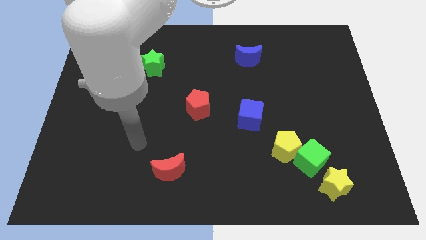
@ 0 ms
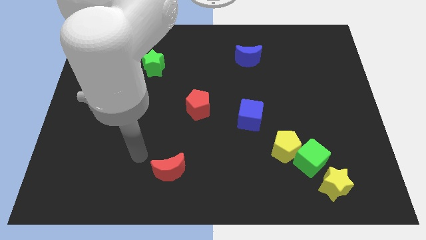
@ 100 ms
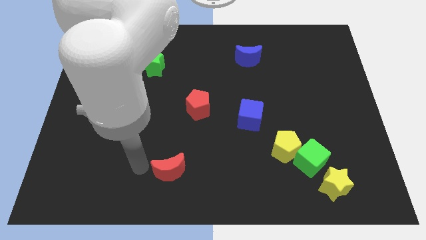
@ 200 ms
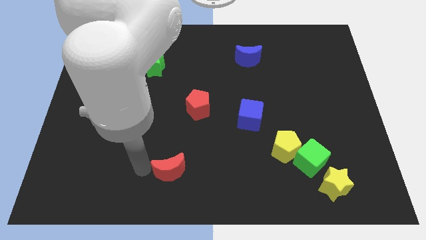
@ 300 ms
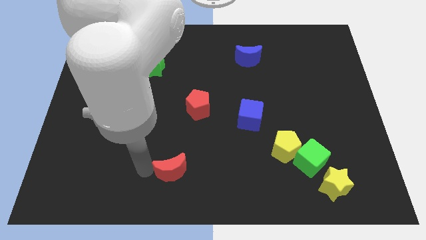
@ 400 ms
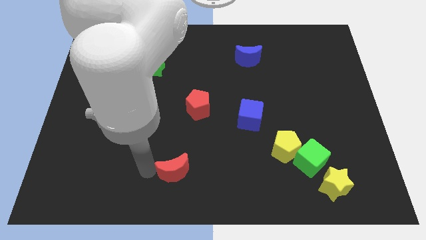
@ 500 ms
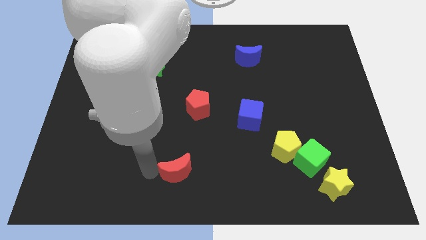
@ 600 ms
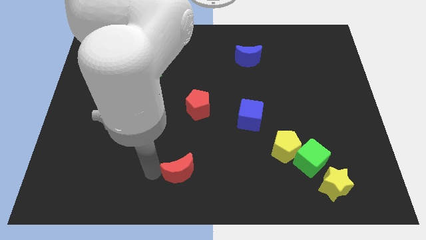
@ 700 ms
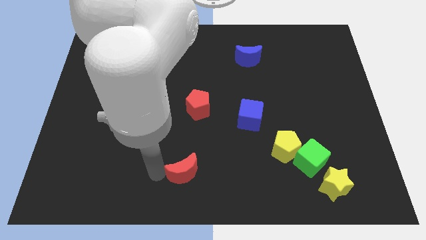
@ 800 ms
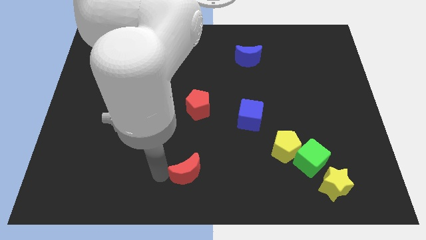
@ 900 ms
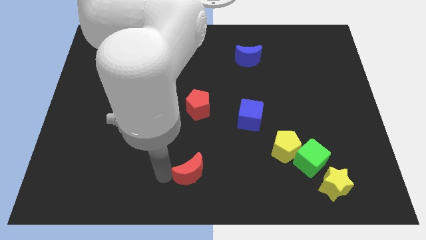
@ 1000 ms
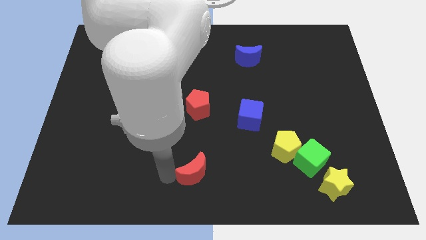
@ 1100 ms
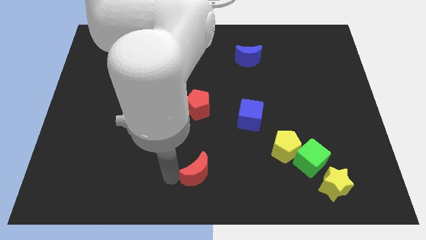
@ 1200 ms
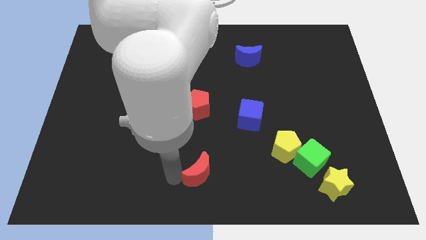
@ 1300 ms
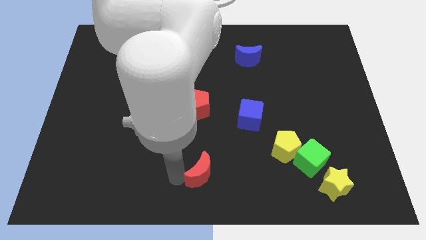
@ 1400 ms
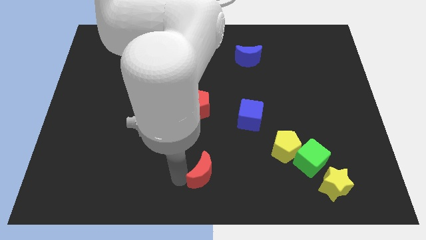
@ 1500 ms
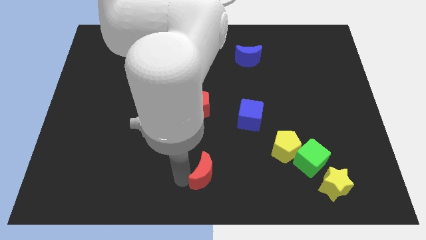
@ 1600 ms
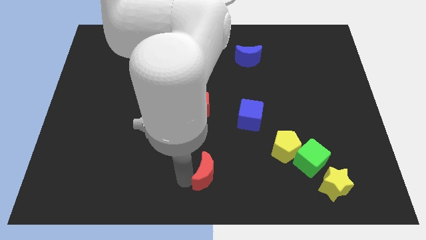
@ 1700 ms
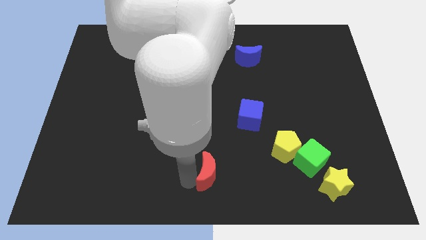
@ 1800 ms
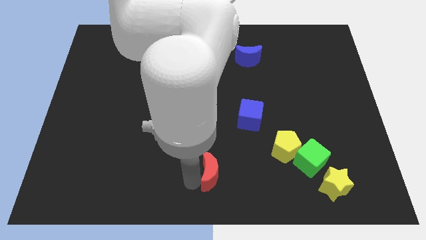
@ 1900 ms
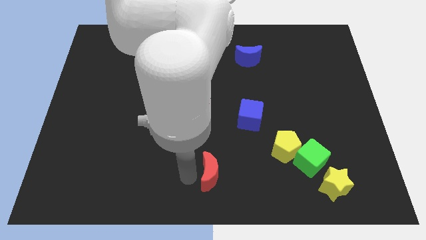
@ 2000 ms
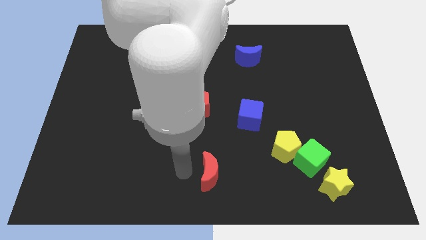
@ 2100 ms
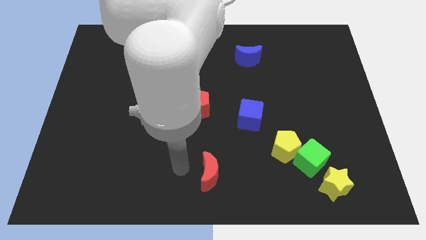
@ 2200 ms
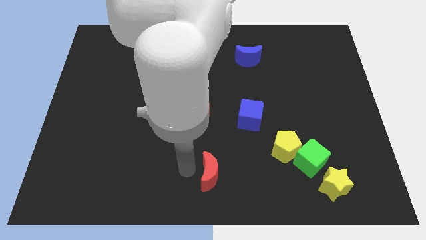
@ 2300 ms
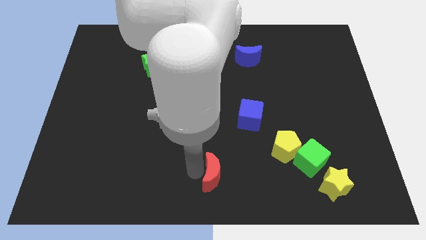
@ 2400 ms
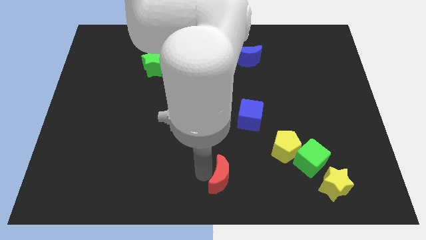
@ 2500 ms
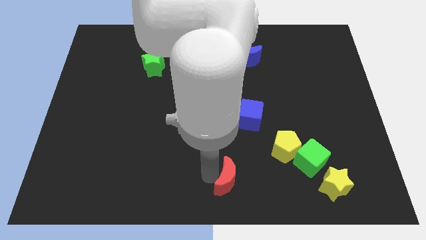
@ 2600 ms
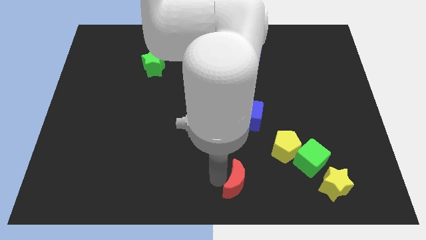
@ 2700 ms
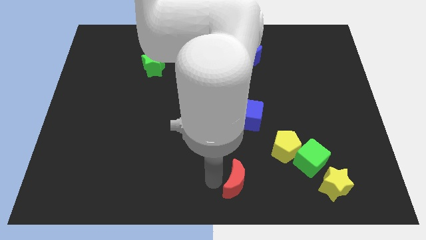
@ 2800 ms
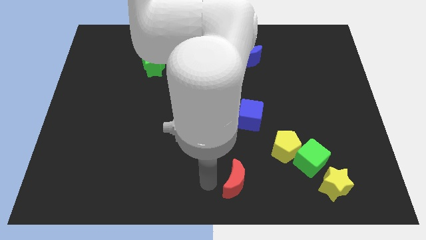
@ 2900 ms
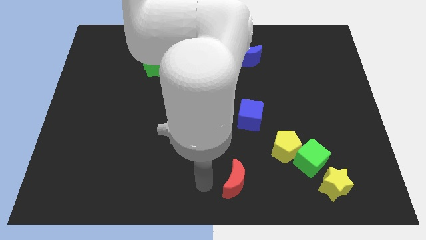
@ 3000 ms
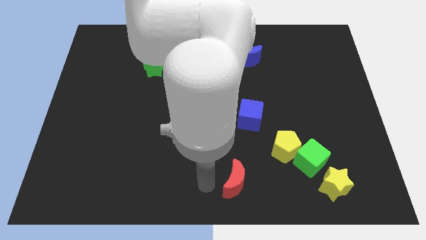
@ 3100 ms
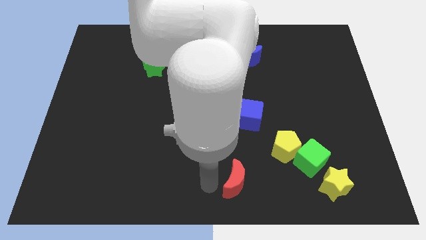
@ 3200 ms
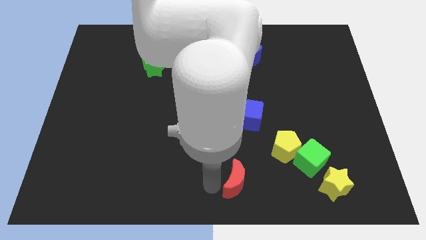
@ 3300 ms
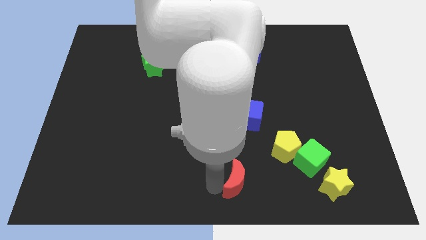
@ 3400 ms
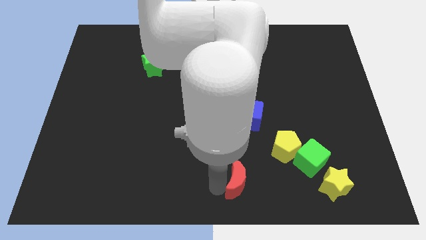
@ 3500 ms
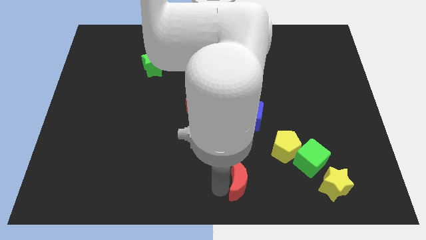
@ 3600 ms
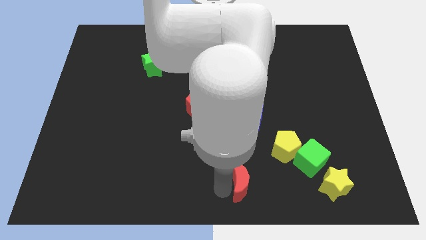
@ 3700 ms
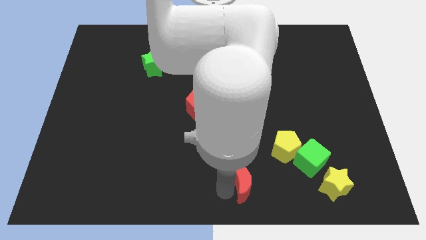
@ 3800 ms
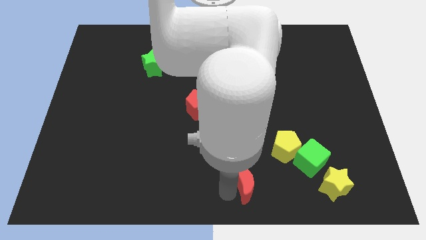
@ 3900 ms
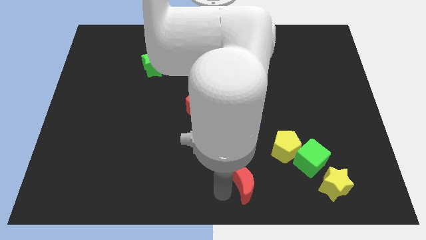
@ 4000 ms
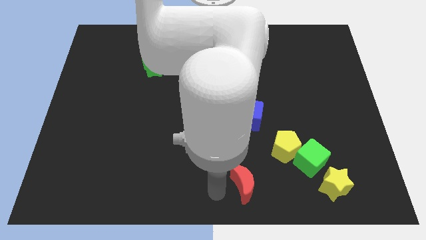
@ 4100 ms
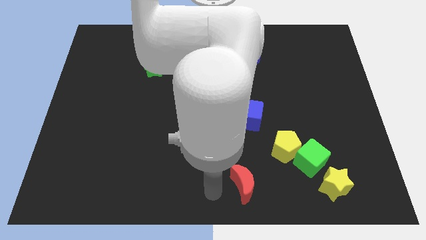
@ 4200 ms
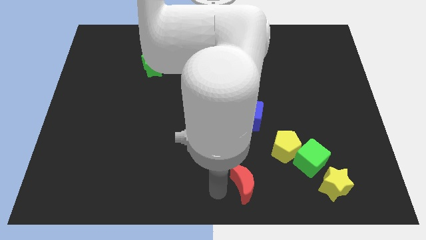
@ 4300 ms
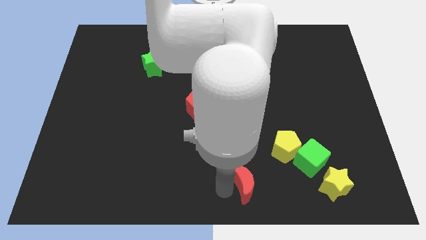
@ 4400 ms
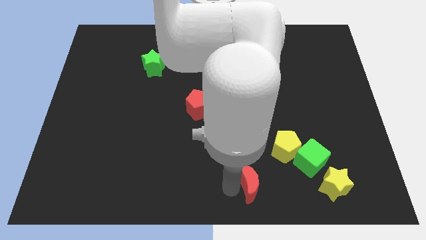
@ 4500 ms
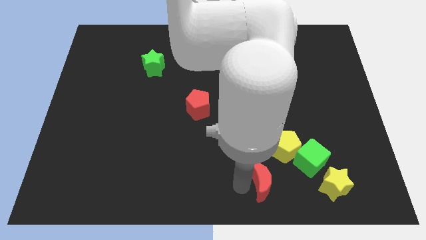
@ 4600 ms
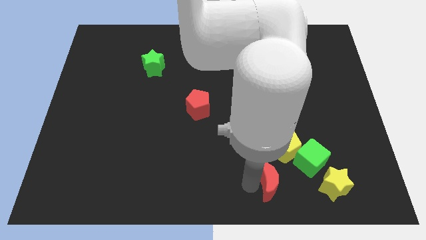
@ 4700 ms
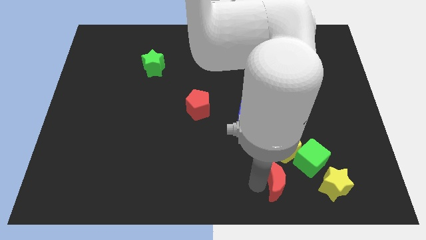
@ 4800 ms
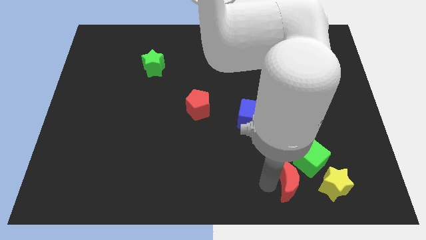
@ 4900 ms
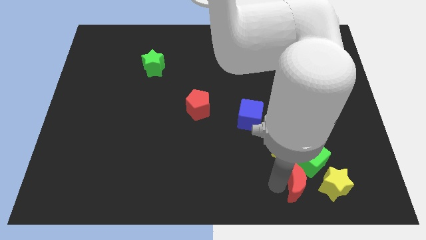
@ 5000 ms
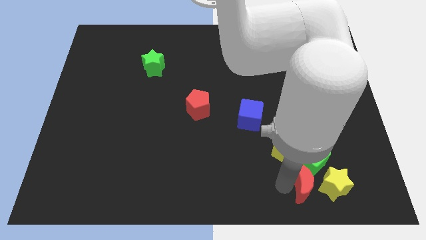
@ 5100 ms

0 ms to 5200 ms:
slide the red moon towards the yellow star

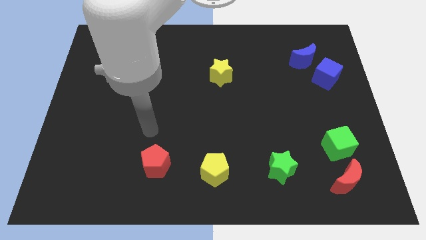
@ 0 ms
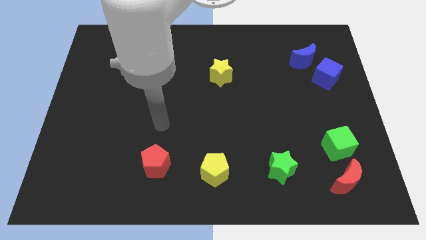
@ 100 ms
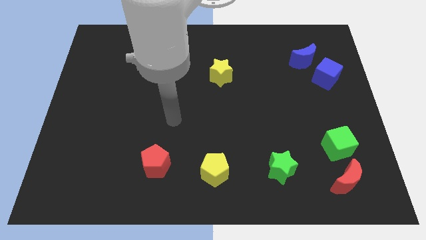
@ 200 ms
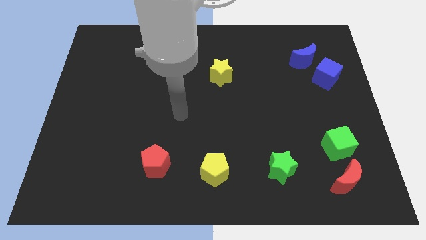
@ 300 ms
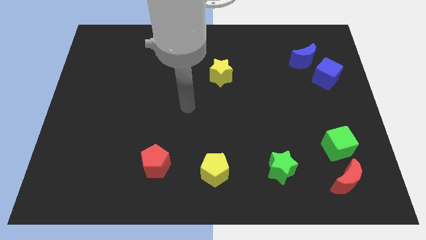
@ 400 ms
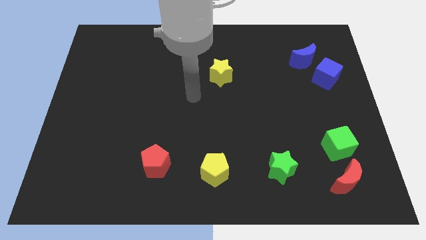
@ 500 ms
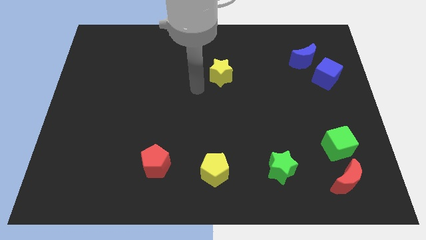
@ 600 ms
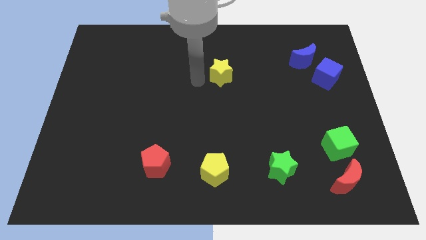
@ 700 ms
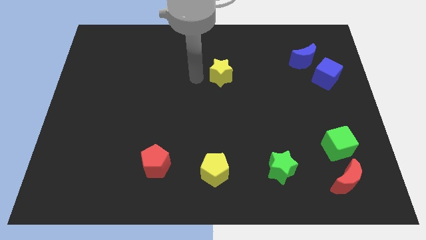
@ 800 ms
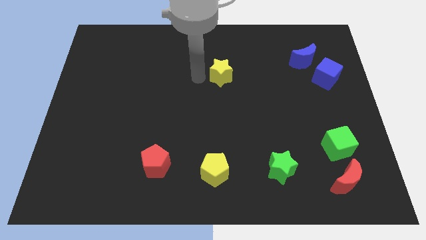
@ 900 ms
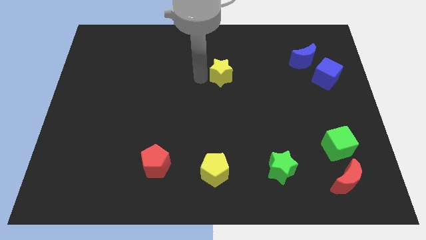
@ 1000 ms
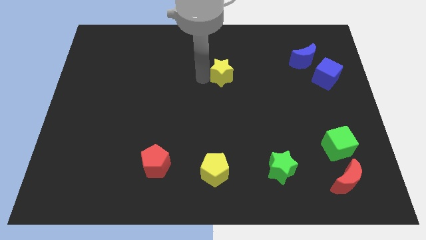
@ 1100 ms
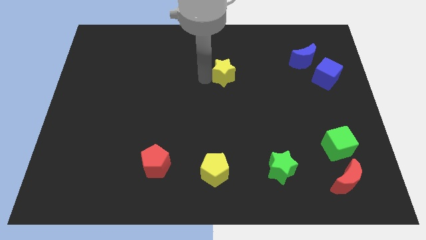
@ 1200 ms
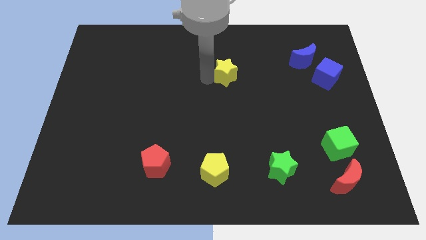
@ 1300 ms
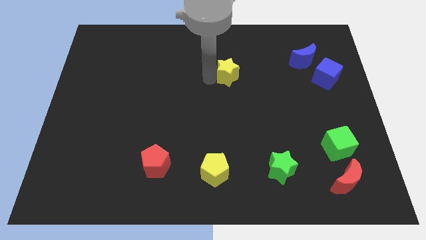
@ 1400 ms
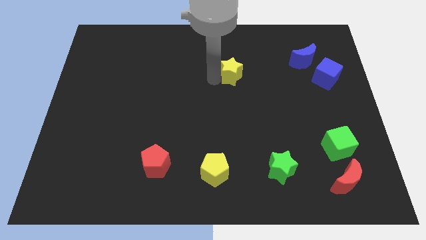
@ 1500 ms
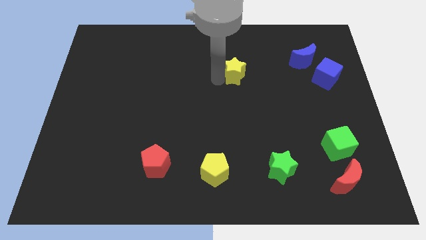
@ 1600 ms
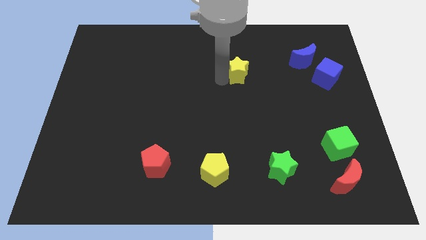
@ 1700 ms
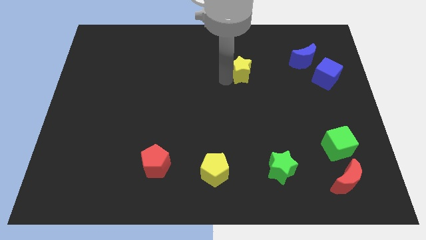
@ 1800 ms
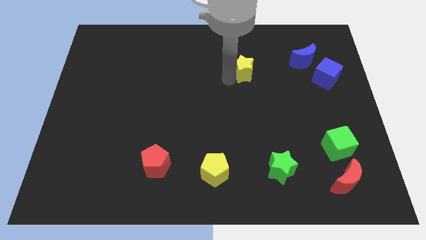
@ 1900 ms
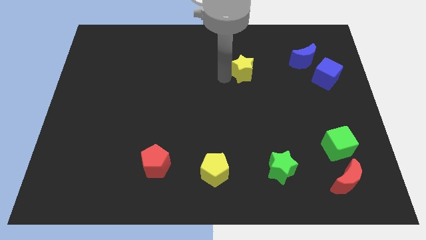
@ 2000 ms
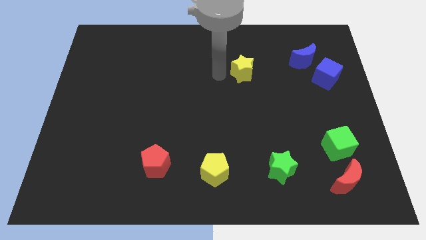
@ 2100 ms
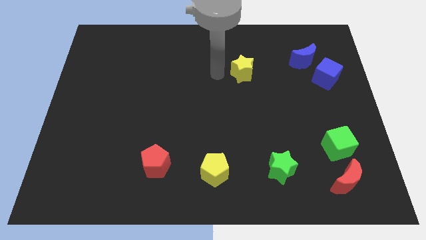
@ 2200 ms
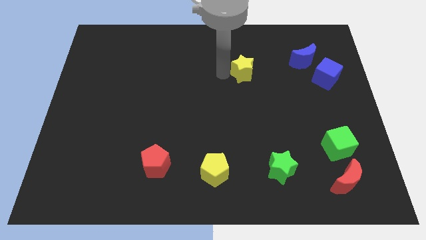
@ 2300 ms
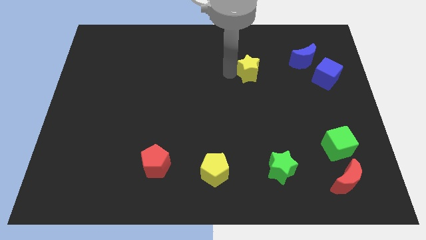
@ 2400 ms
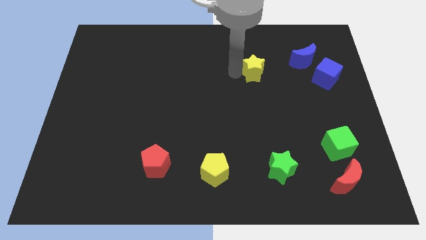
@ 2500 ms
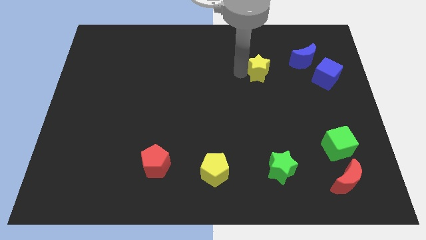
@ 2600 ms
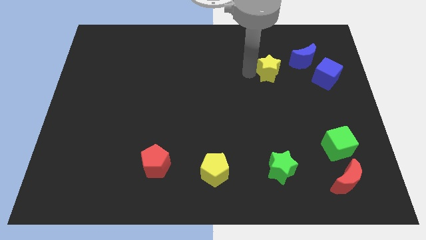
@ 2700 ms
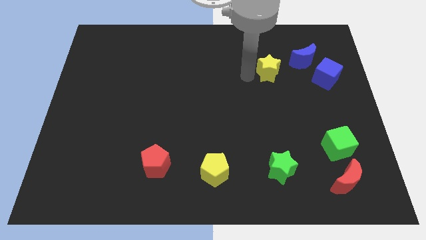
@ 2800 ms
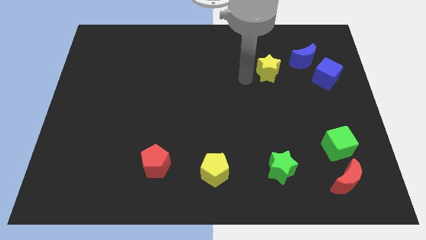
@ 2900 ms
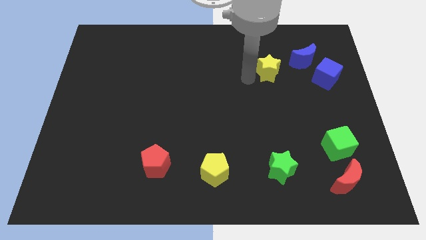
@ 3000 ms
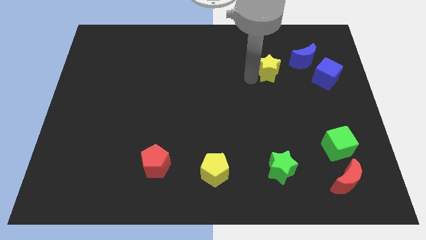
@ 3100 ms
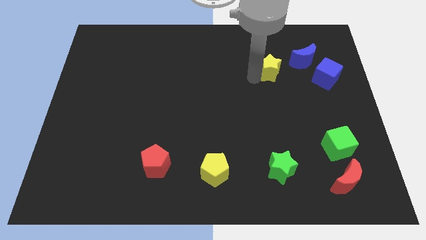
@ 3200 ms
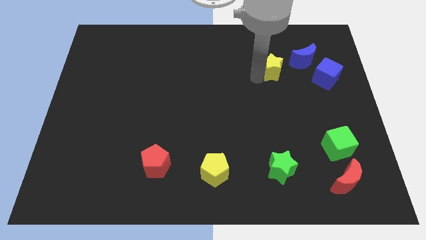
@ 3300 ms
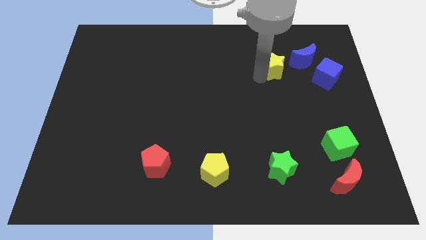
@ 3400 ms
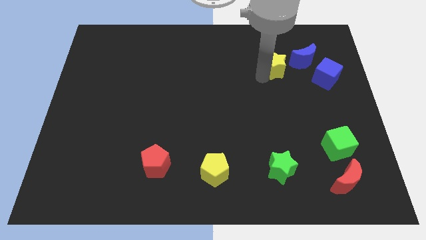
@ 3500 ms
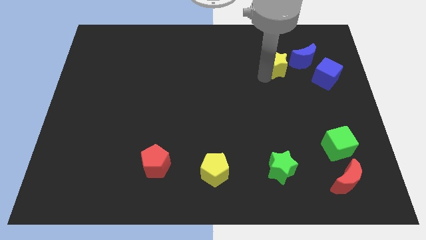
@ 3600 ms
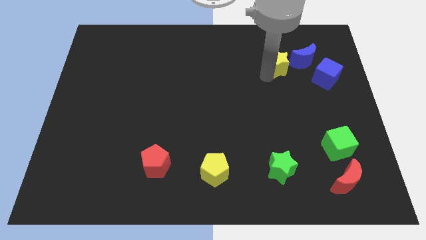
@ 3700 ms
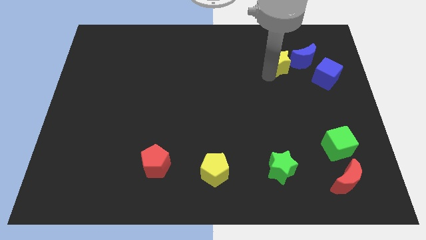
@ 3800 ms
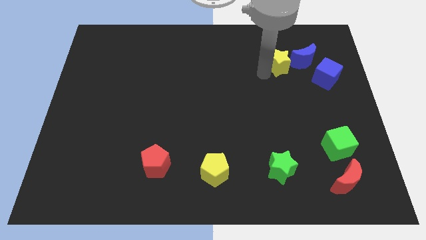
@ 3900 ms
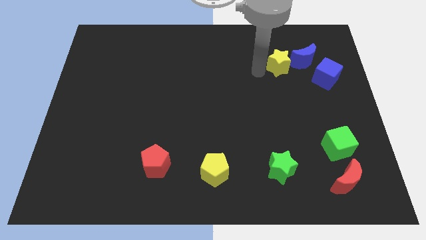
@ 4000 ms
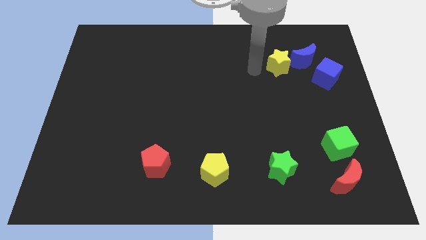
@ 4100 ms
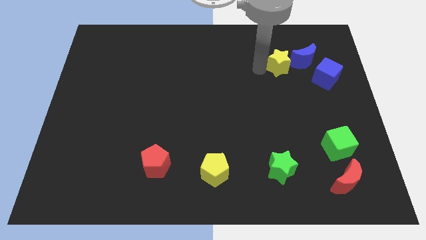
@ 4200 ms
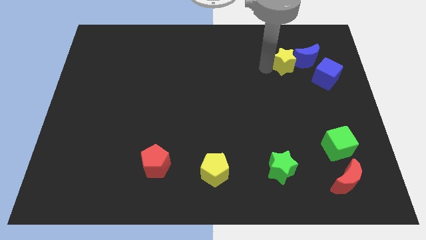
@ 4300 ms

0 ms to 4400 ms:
push the yellow star towards the blue moon
